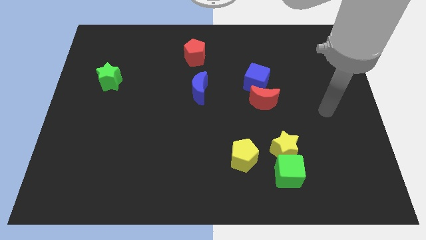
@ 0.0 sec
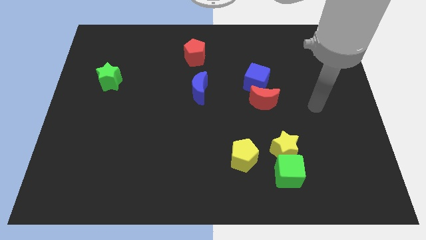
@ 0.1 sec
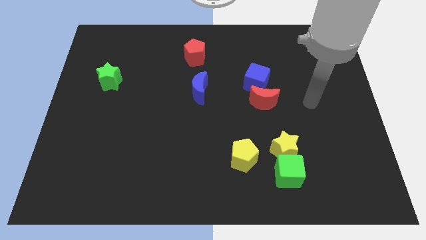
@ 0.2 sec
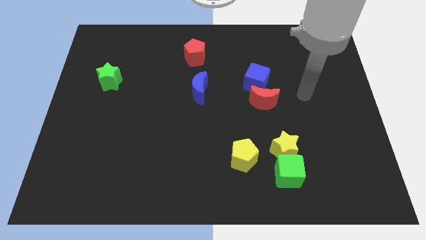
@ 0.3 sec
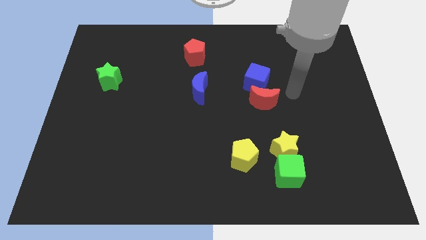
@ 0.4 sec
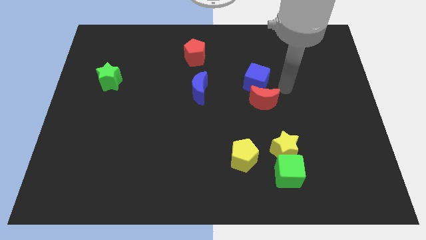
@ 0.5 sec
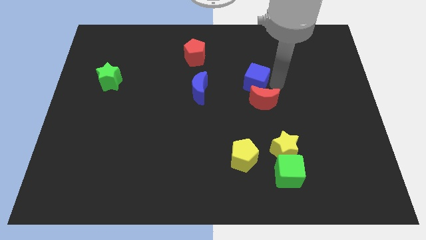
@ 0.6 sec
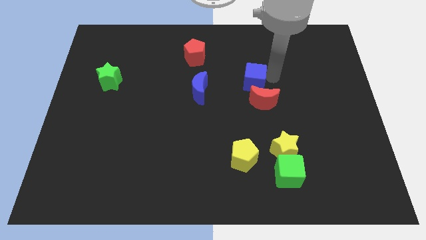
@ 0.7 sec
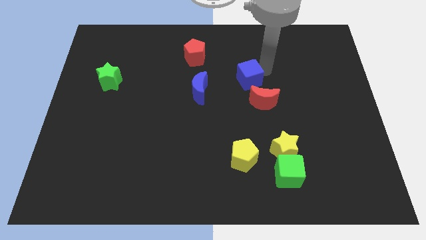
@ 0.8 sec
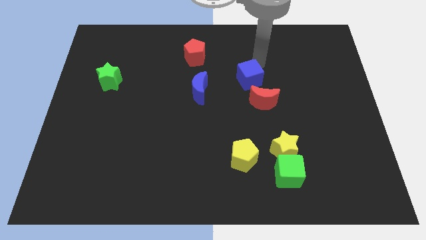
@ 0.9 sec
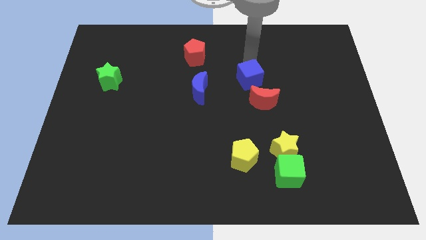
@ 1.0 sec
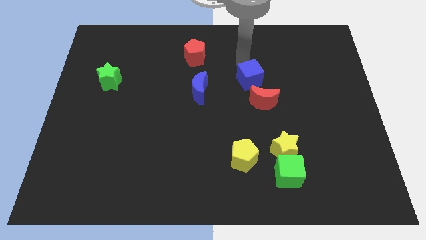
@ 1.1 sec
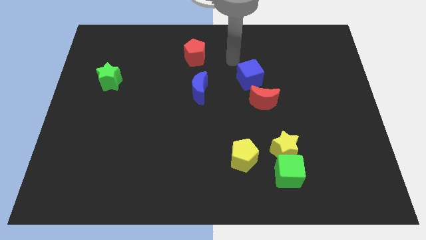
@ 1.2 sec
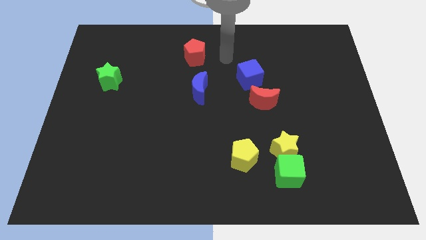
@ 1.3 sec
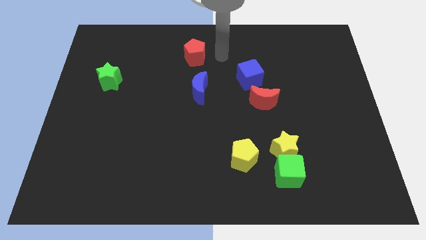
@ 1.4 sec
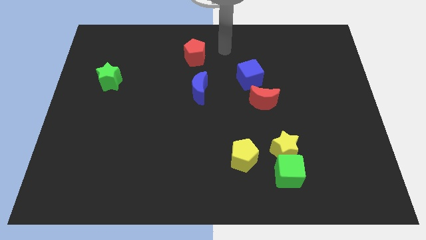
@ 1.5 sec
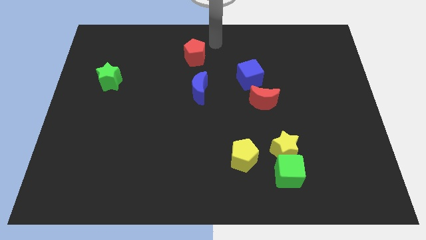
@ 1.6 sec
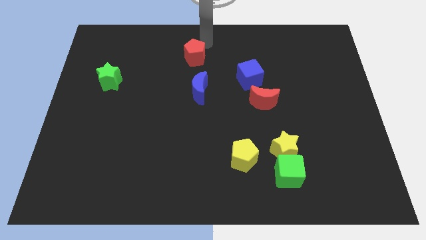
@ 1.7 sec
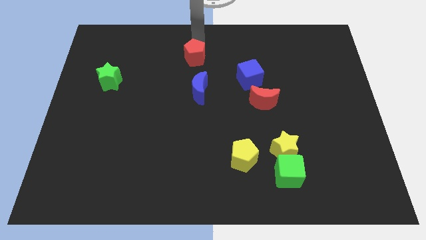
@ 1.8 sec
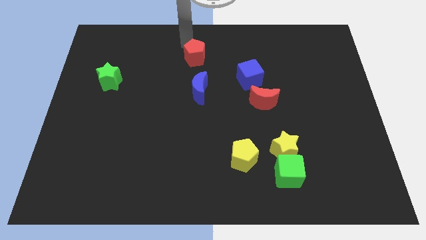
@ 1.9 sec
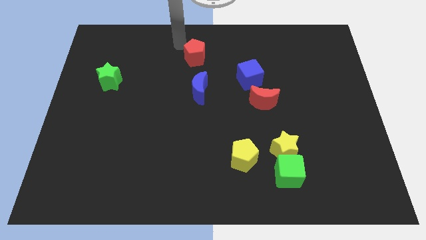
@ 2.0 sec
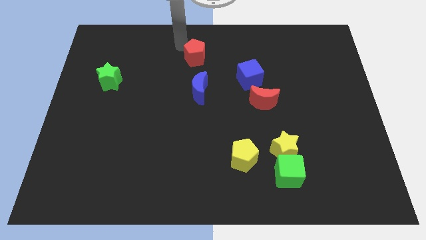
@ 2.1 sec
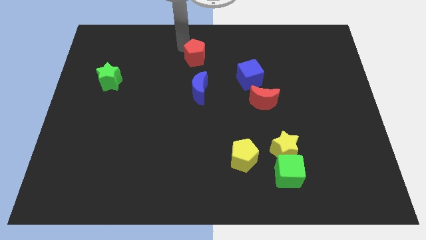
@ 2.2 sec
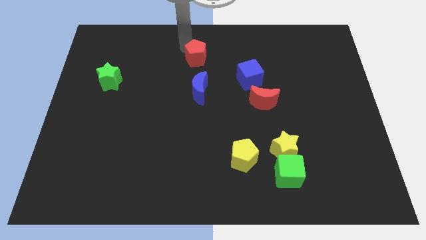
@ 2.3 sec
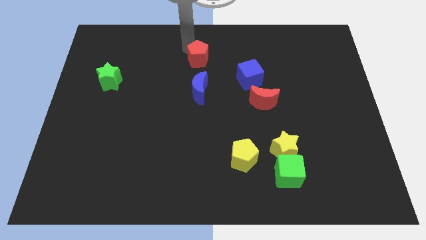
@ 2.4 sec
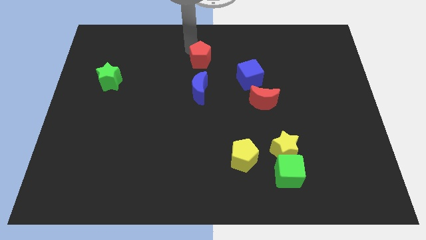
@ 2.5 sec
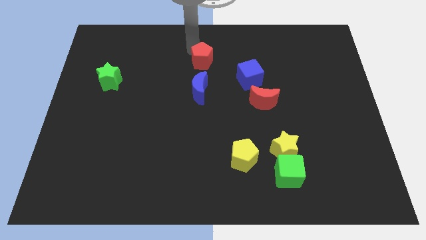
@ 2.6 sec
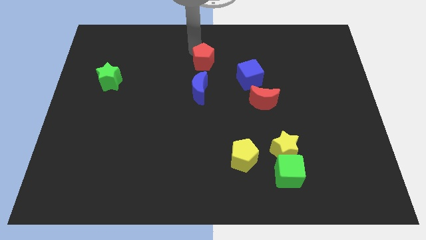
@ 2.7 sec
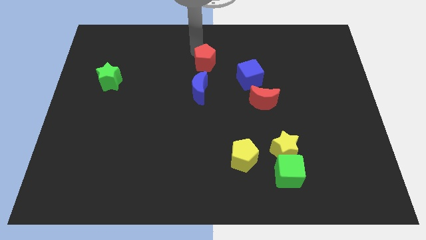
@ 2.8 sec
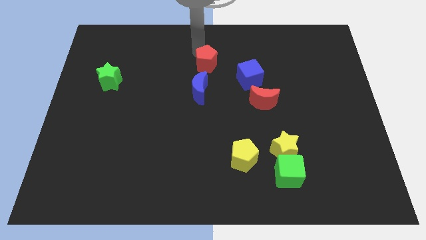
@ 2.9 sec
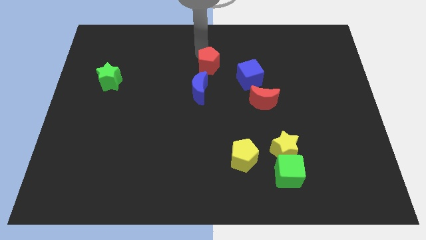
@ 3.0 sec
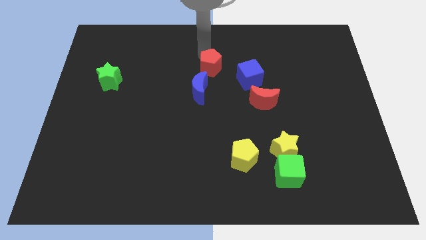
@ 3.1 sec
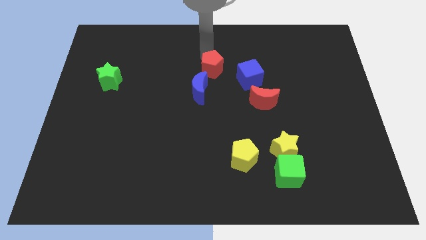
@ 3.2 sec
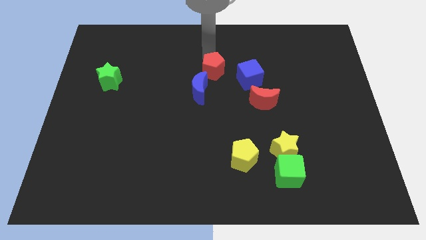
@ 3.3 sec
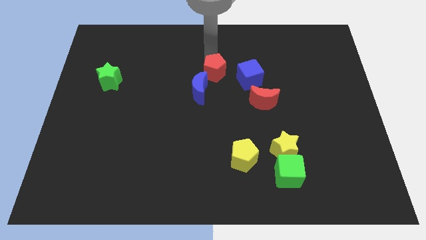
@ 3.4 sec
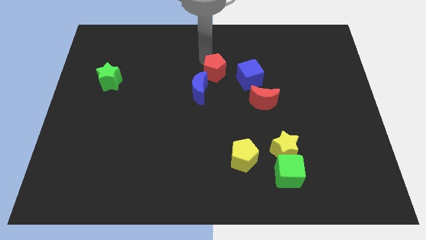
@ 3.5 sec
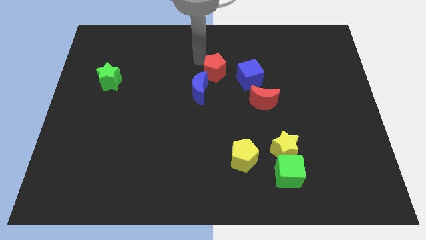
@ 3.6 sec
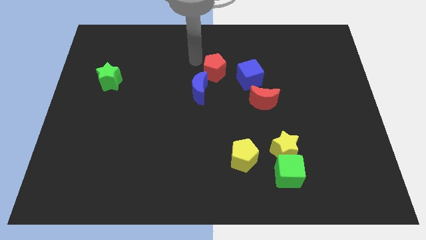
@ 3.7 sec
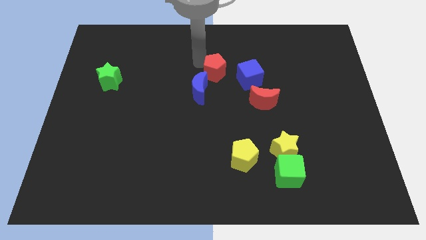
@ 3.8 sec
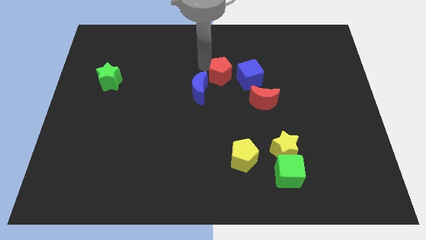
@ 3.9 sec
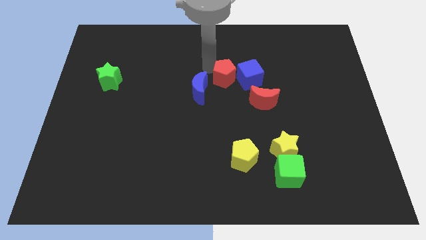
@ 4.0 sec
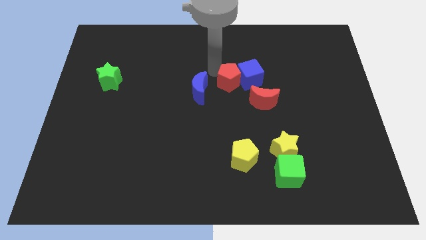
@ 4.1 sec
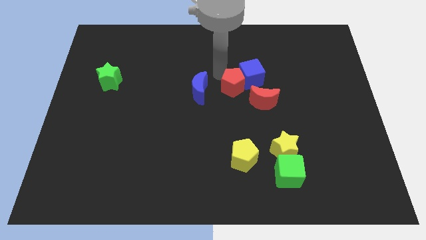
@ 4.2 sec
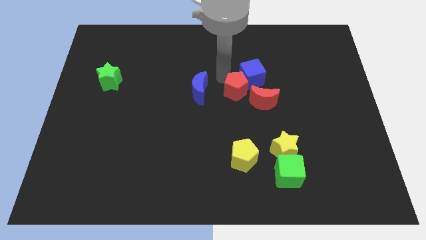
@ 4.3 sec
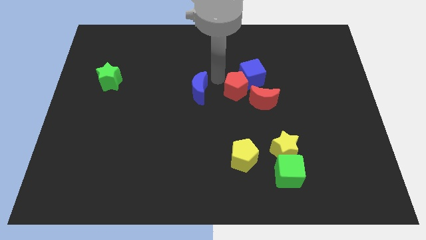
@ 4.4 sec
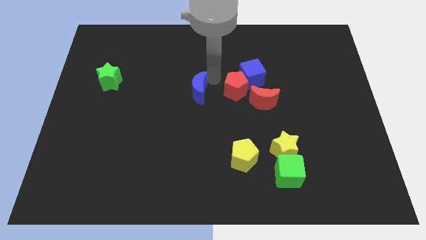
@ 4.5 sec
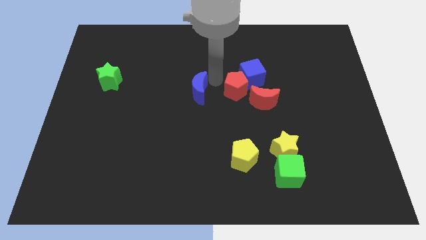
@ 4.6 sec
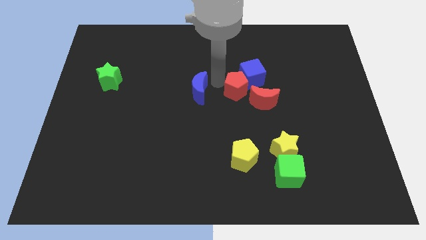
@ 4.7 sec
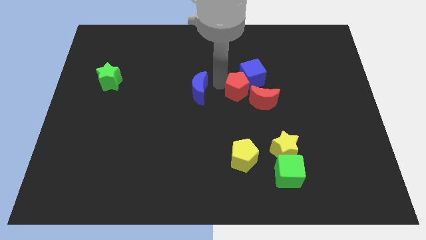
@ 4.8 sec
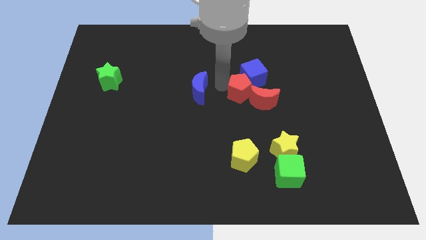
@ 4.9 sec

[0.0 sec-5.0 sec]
move the red pentagon next to the red moon

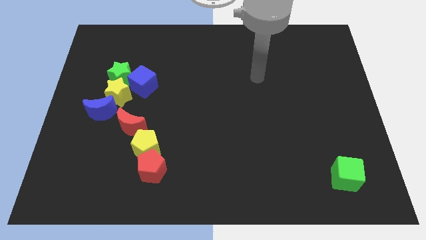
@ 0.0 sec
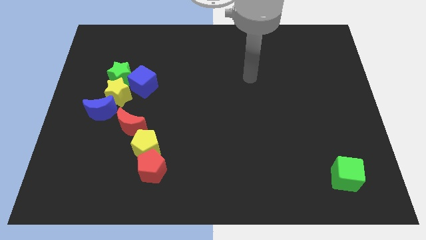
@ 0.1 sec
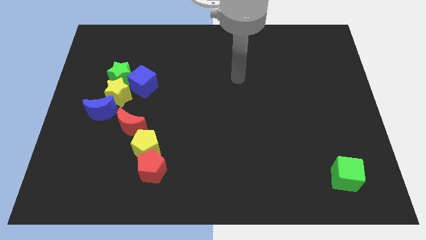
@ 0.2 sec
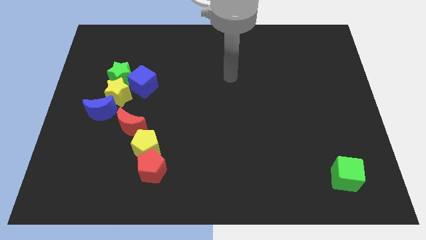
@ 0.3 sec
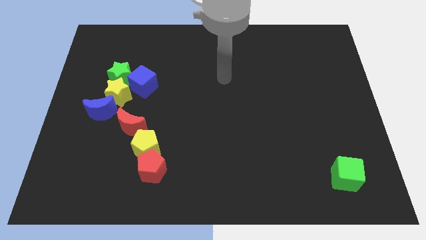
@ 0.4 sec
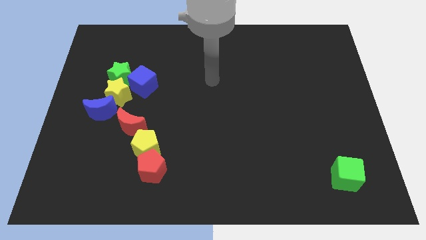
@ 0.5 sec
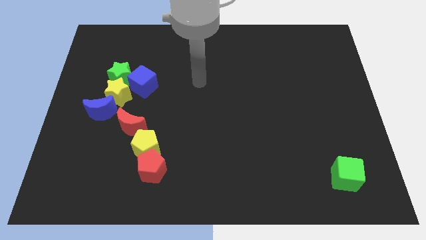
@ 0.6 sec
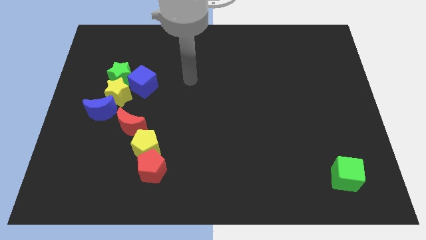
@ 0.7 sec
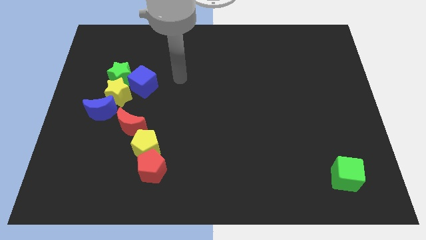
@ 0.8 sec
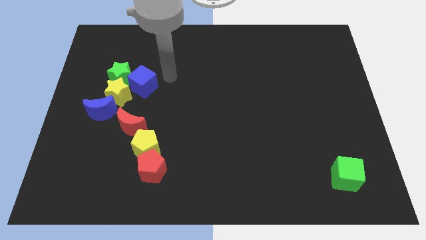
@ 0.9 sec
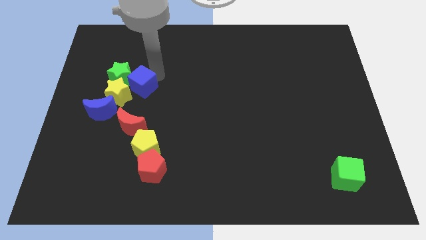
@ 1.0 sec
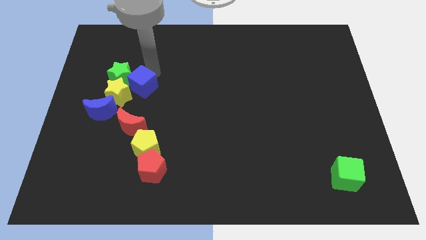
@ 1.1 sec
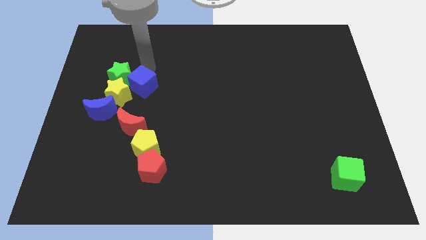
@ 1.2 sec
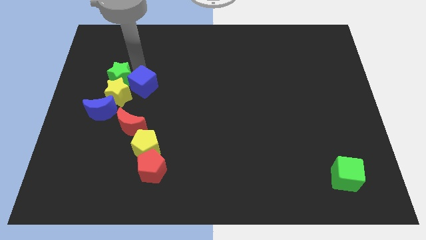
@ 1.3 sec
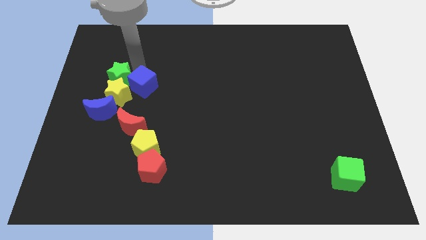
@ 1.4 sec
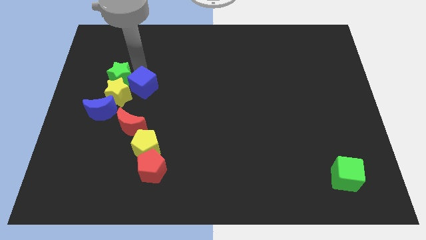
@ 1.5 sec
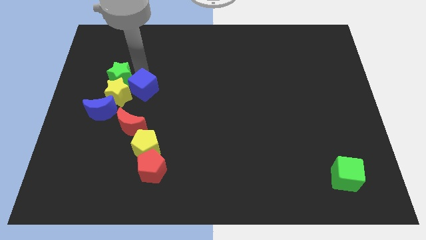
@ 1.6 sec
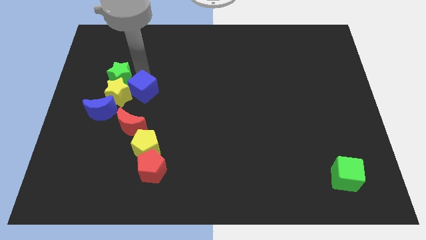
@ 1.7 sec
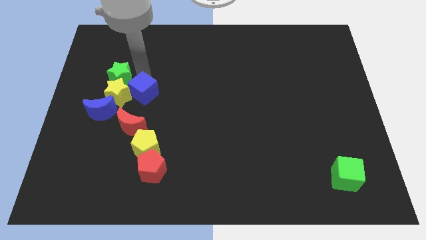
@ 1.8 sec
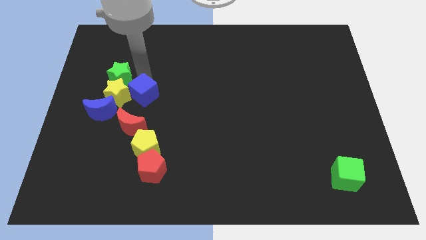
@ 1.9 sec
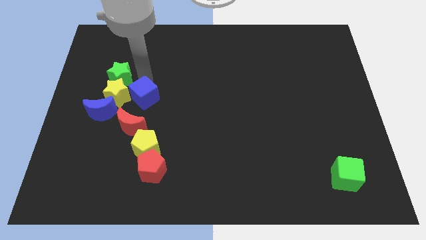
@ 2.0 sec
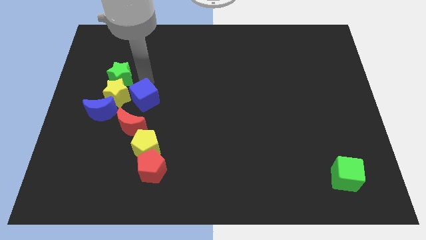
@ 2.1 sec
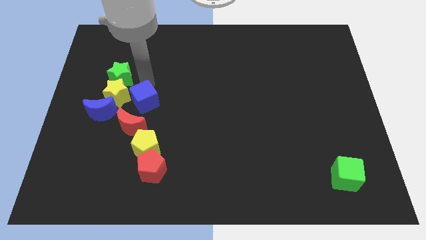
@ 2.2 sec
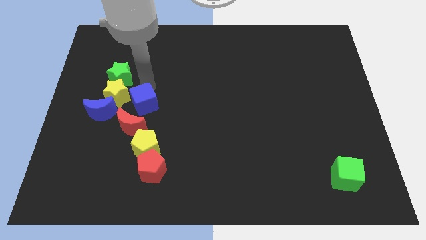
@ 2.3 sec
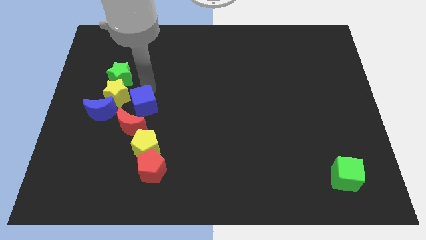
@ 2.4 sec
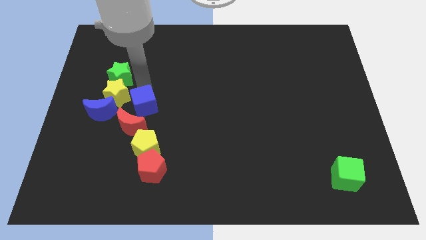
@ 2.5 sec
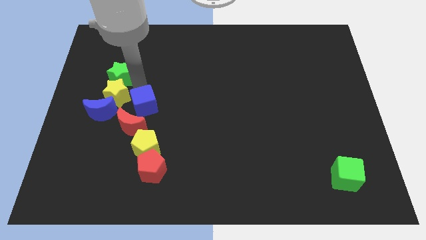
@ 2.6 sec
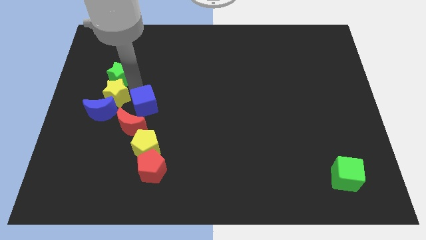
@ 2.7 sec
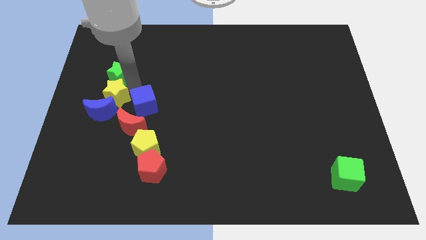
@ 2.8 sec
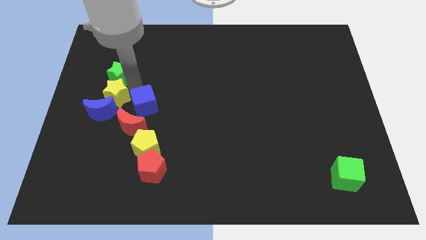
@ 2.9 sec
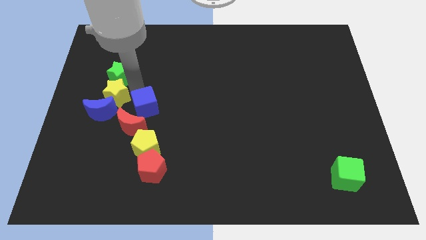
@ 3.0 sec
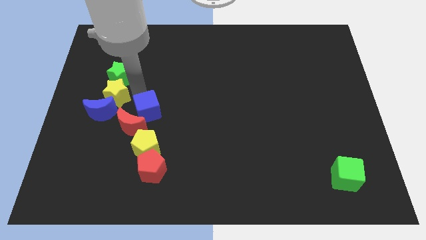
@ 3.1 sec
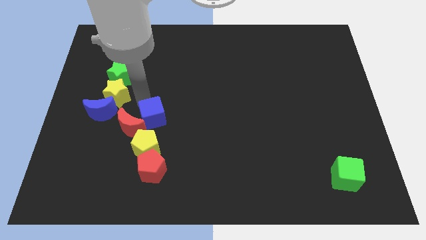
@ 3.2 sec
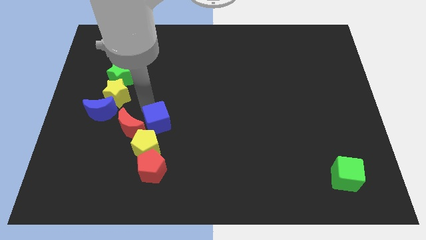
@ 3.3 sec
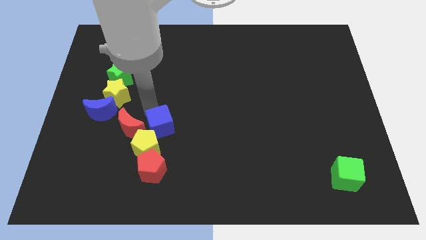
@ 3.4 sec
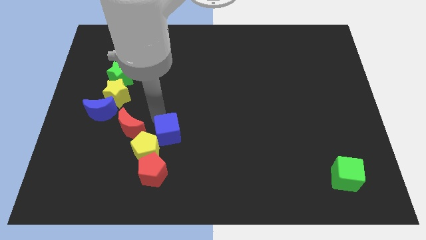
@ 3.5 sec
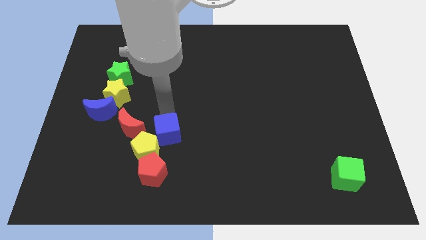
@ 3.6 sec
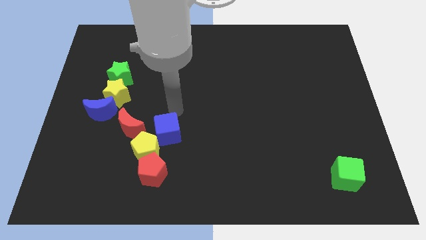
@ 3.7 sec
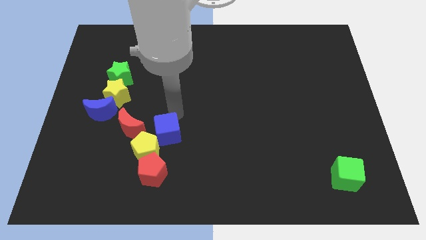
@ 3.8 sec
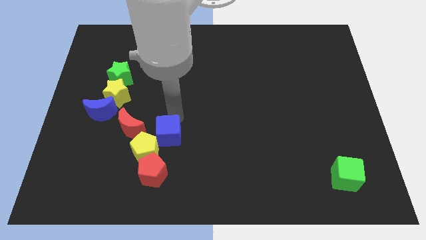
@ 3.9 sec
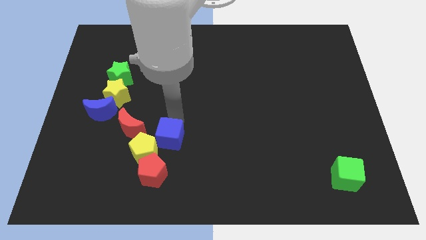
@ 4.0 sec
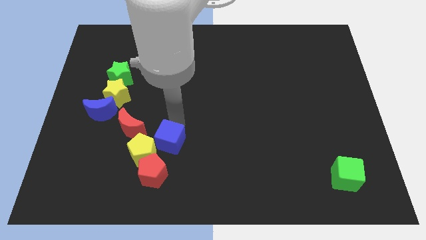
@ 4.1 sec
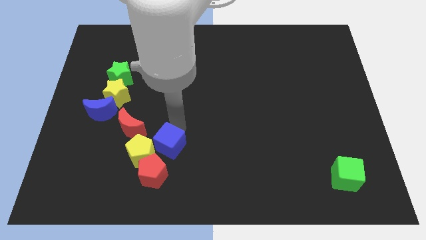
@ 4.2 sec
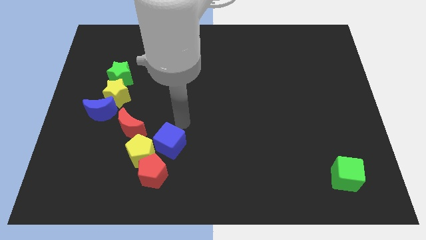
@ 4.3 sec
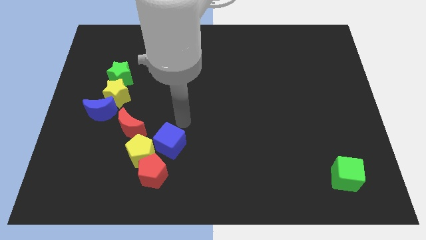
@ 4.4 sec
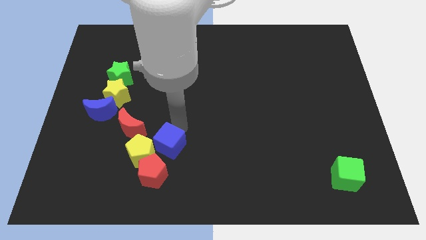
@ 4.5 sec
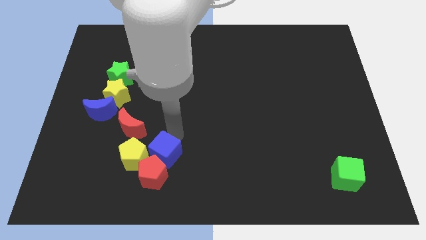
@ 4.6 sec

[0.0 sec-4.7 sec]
slide the blue cube towards the red pentagon
